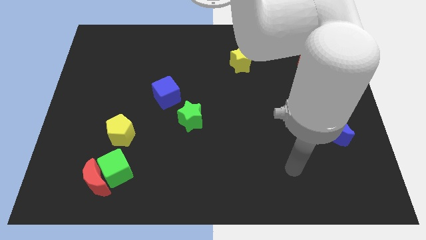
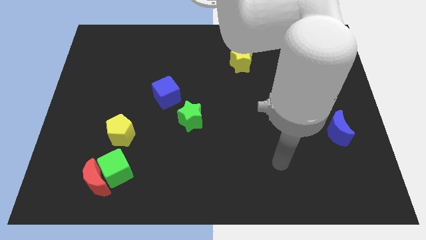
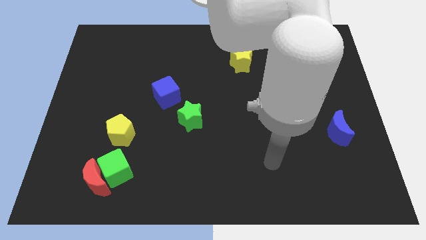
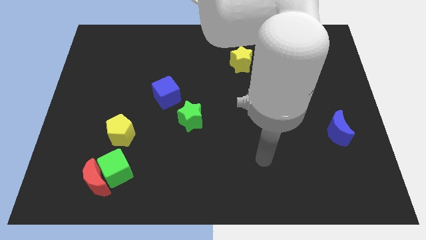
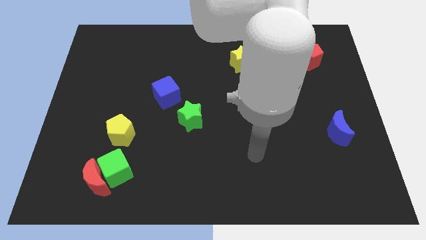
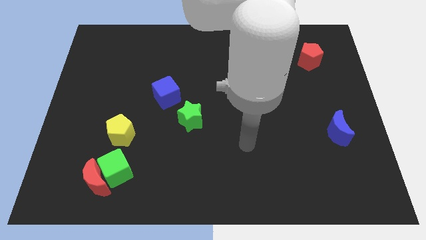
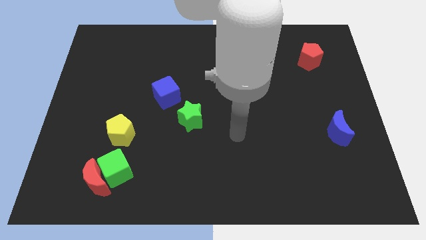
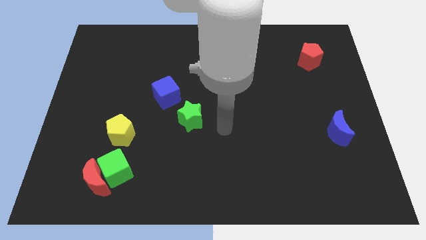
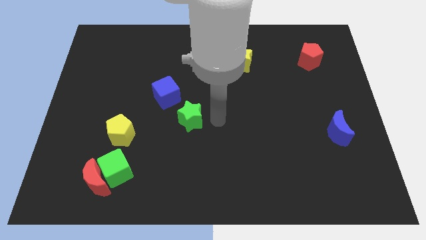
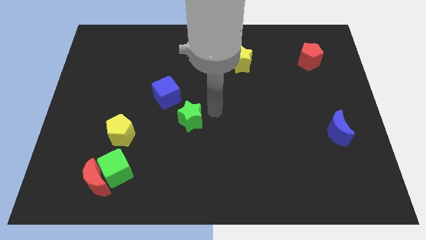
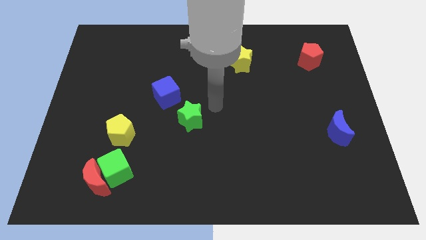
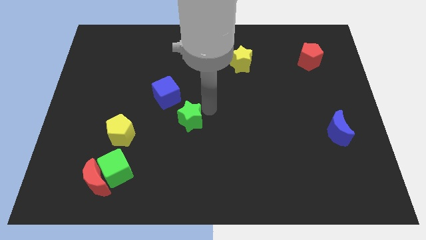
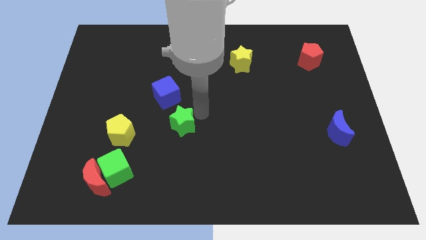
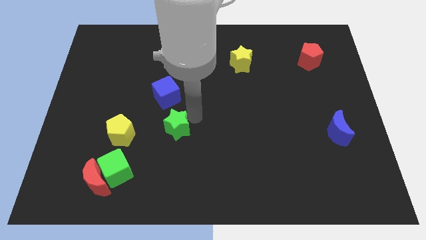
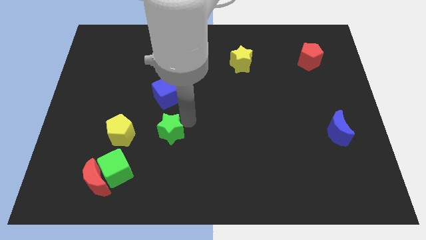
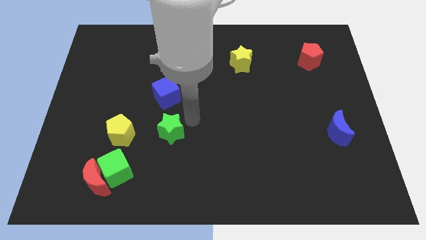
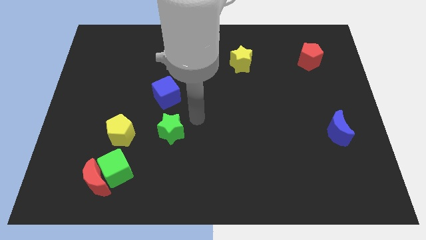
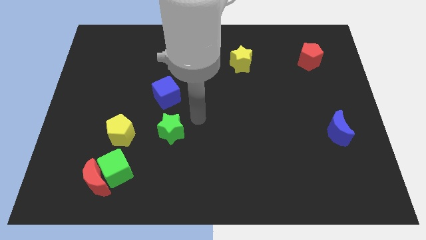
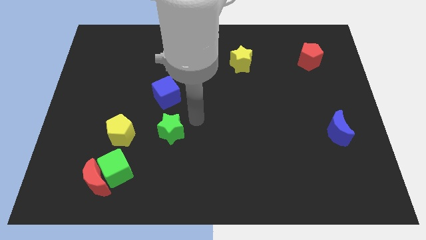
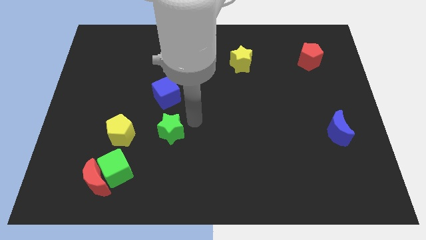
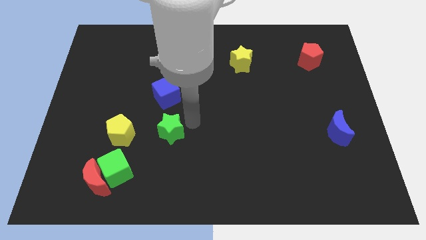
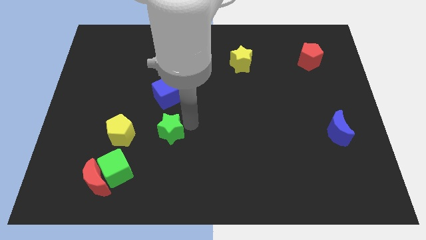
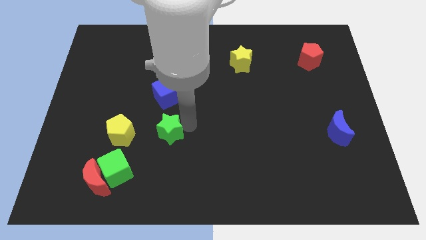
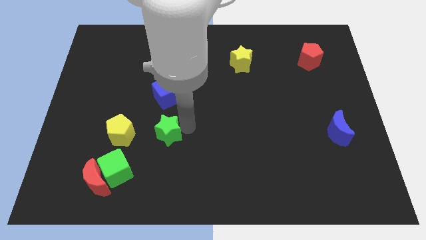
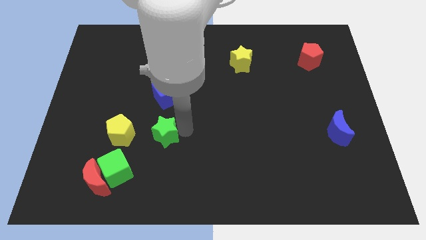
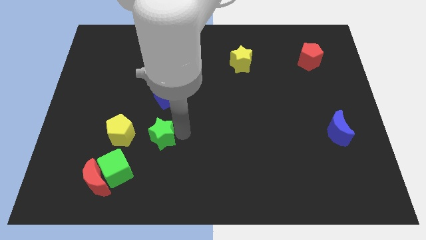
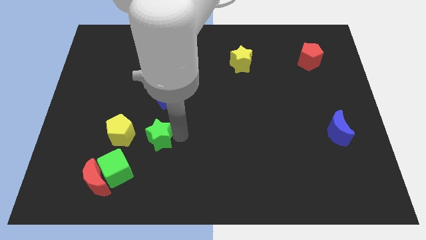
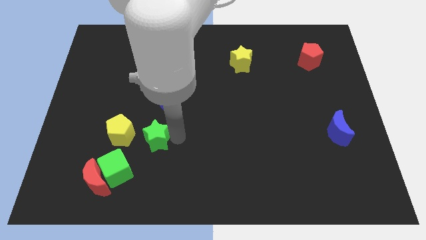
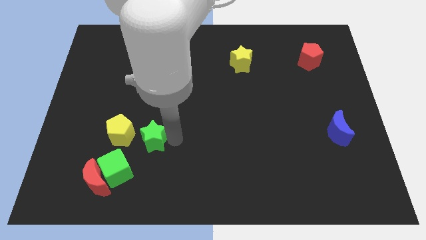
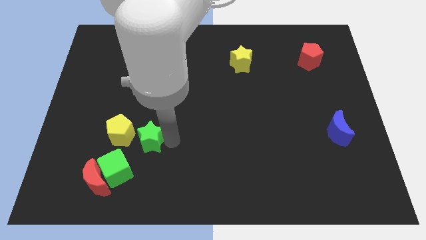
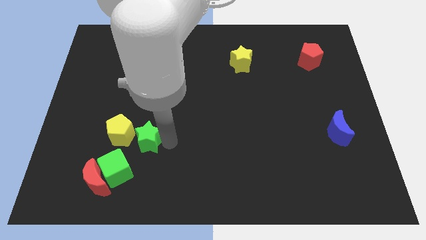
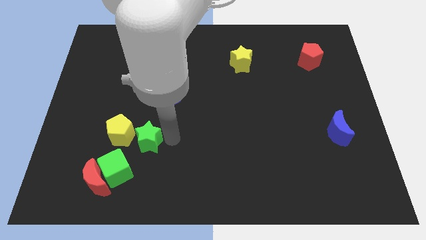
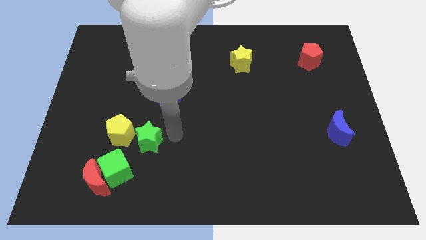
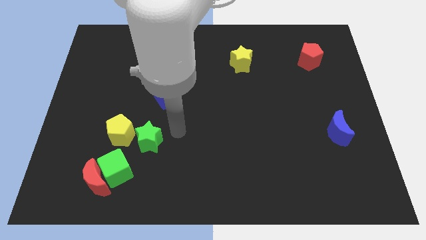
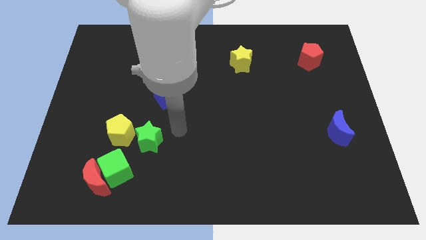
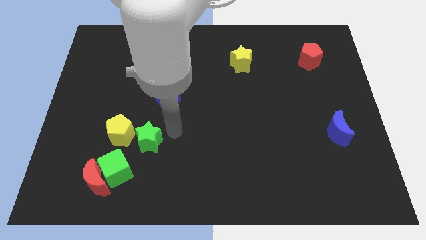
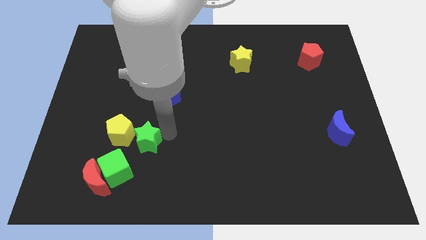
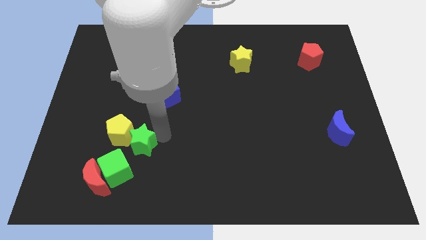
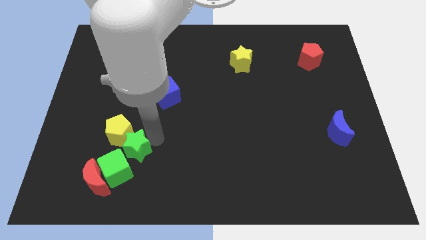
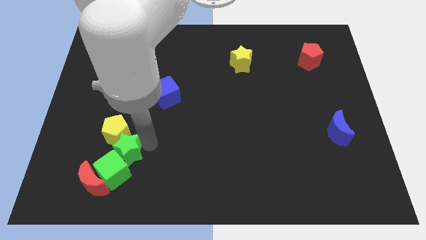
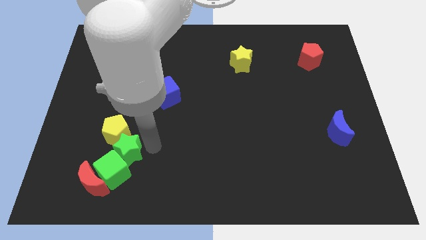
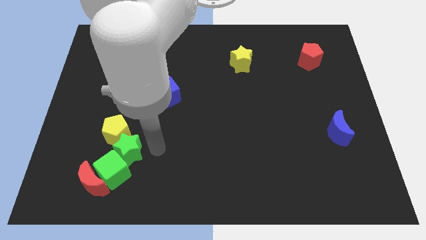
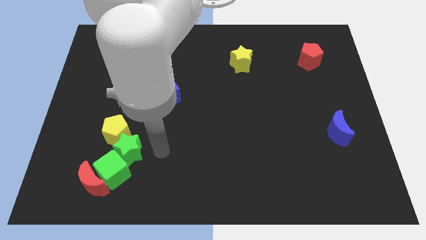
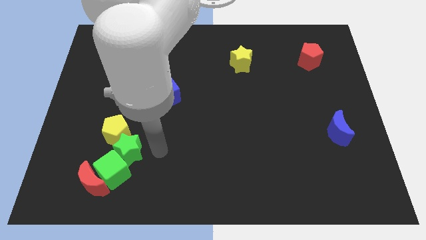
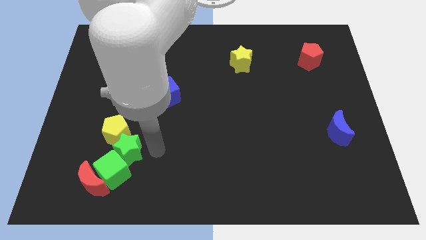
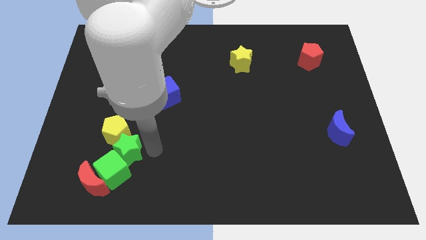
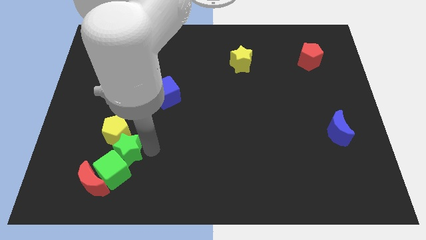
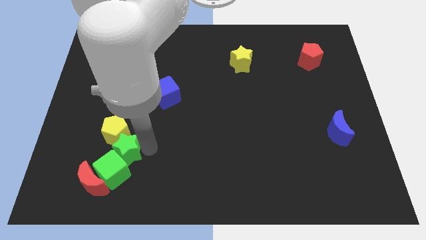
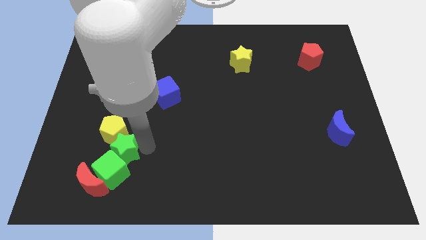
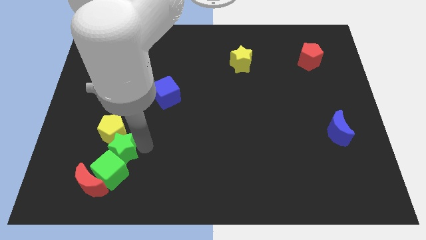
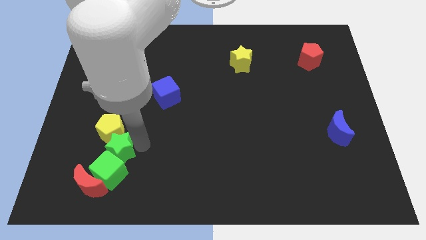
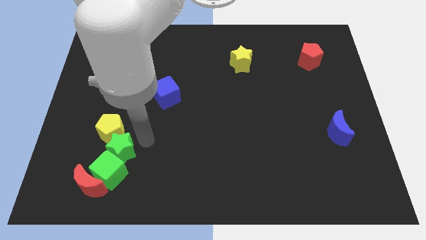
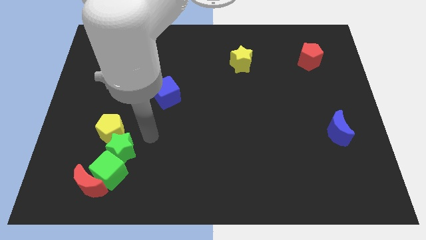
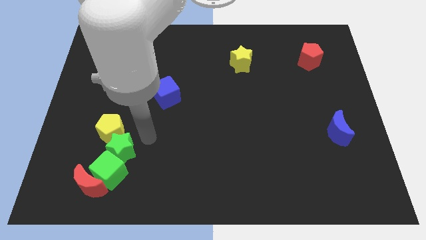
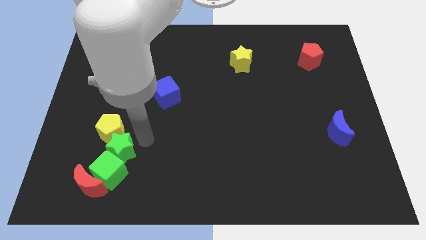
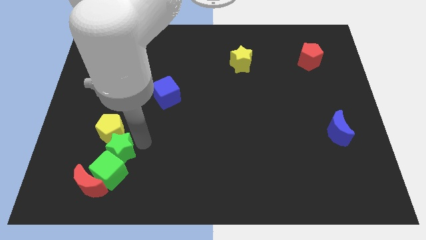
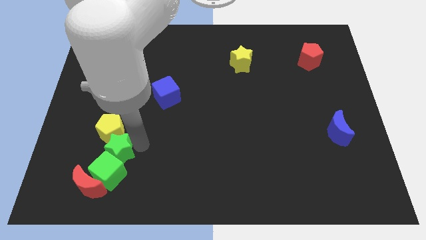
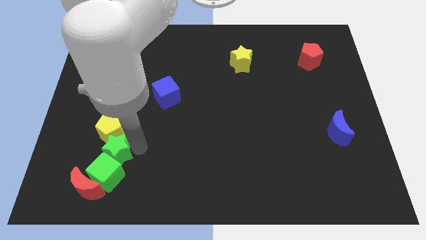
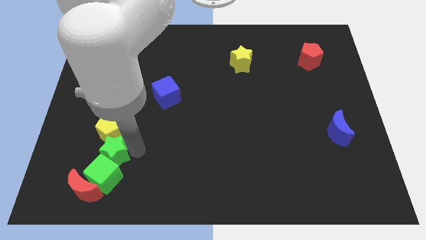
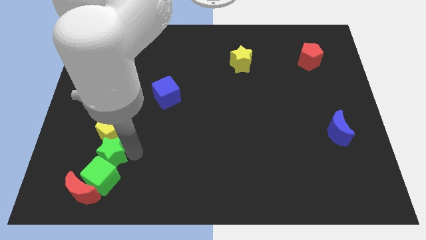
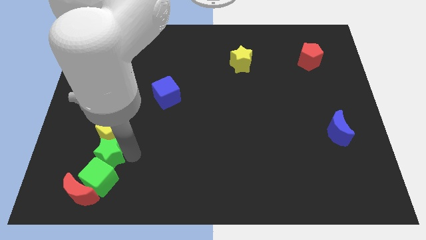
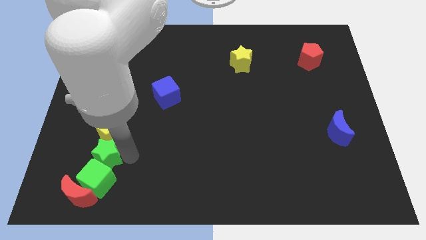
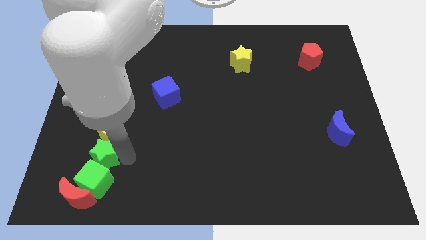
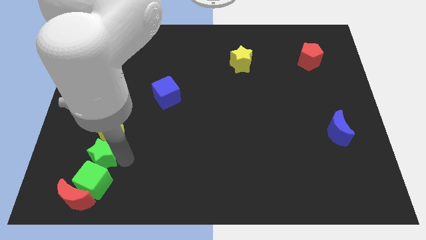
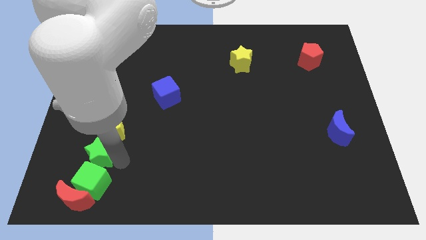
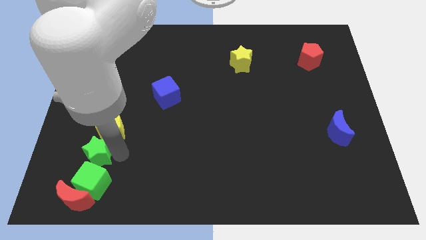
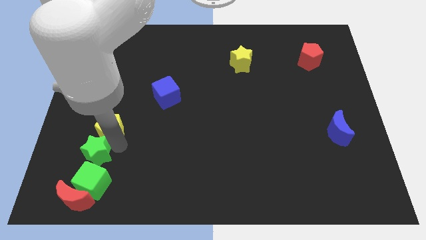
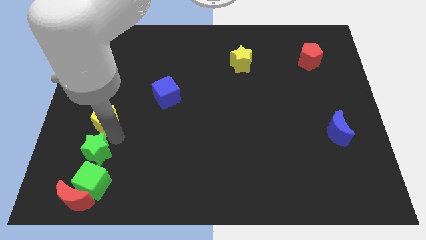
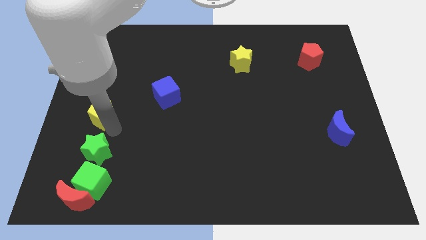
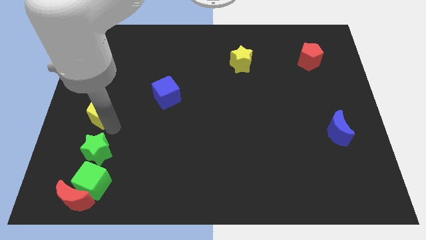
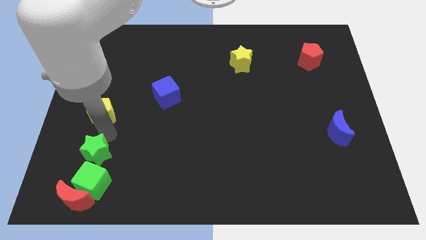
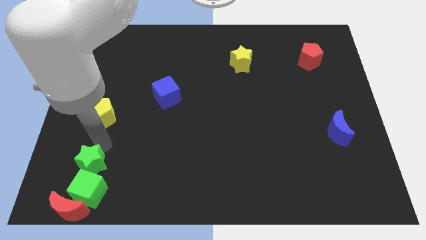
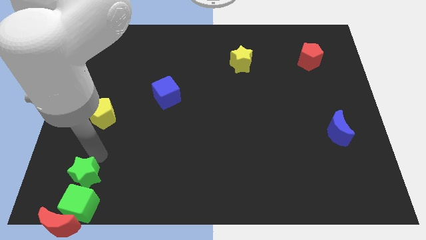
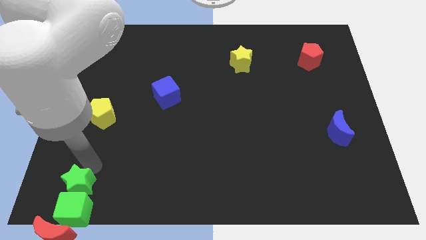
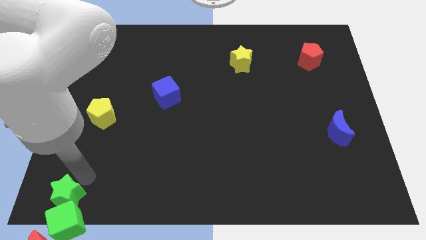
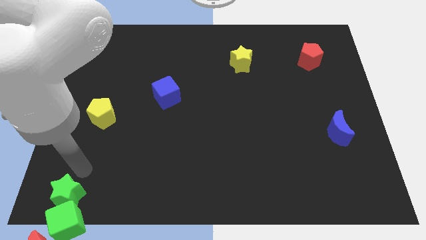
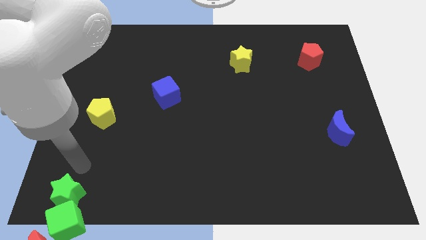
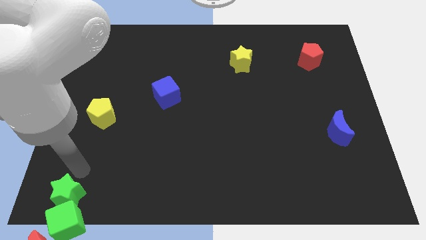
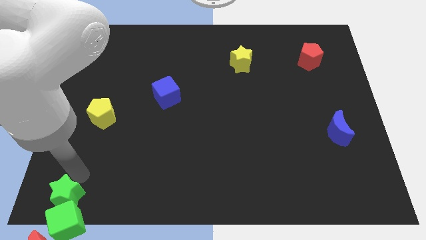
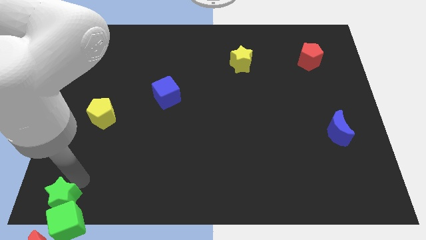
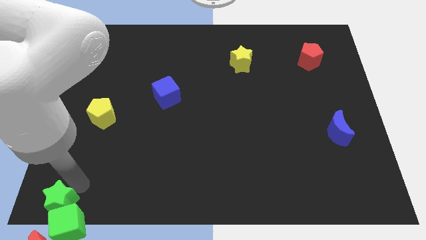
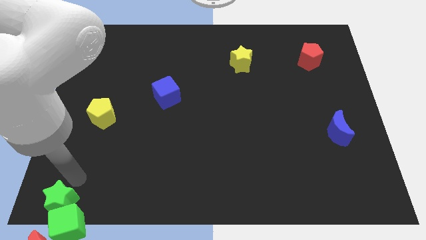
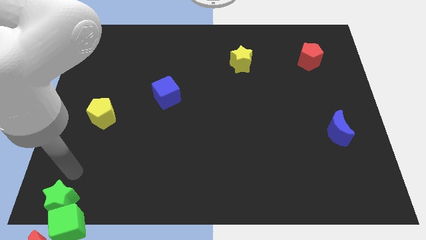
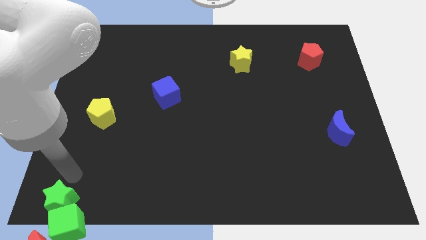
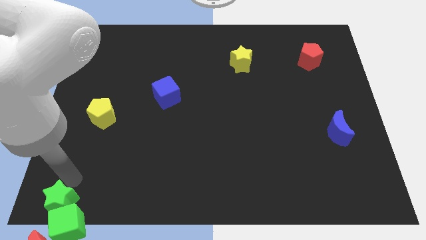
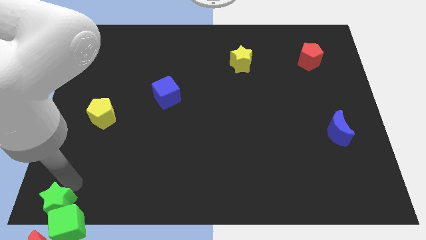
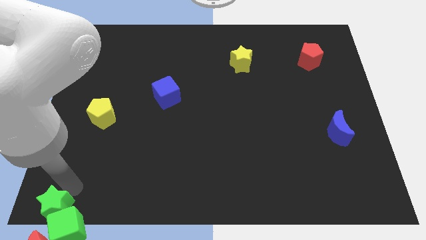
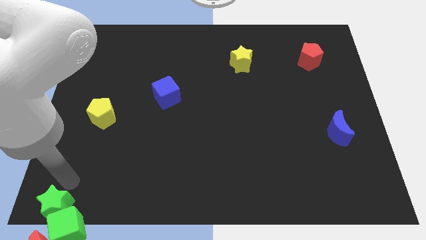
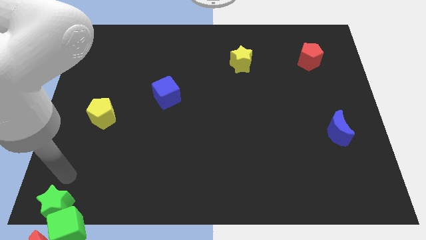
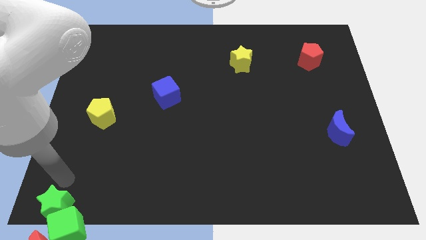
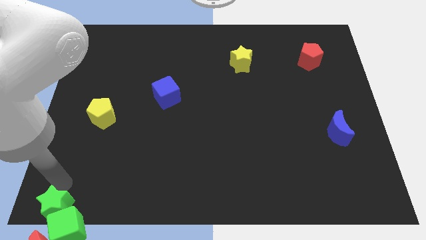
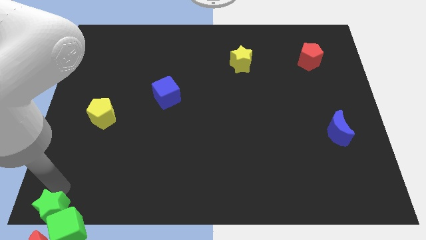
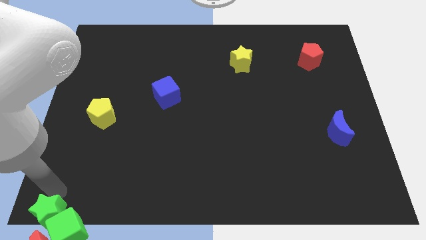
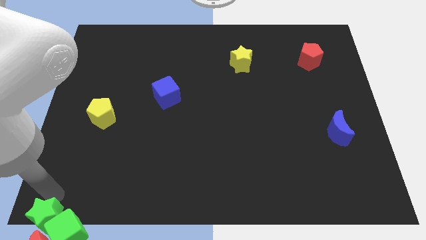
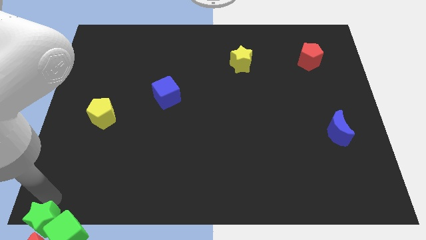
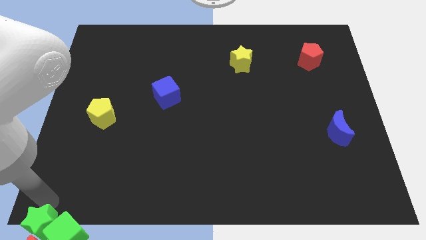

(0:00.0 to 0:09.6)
put the green star towards the red moon
